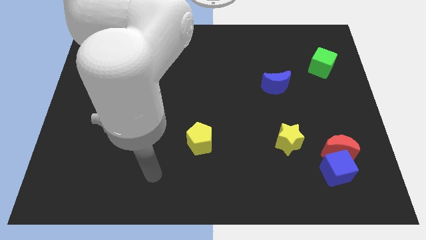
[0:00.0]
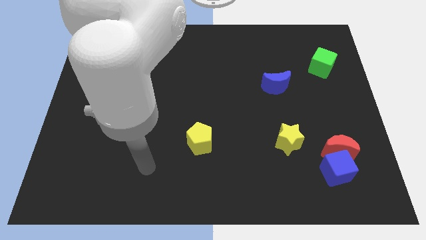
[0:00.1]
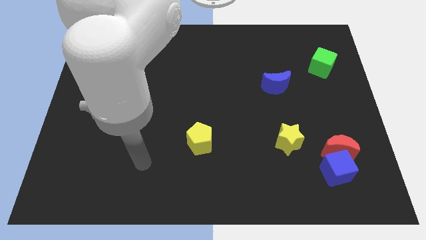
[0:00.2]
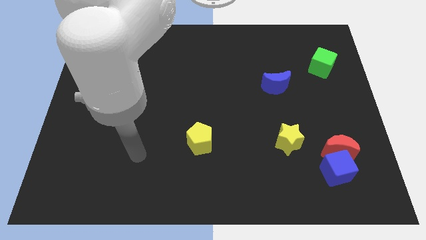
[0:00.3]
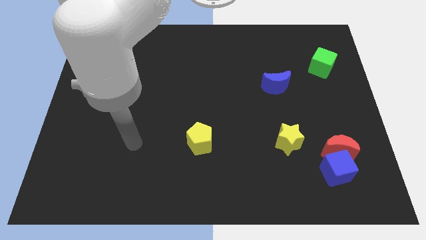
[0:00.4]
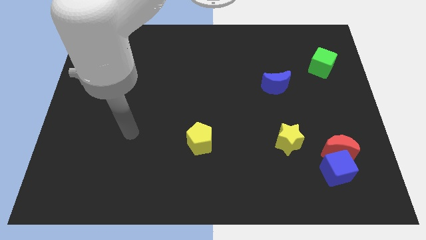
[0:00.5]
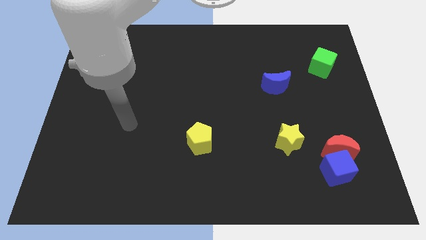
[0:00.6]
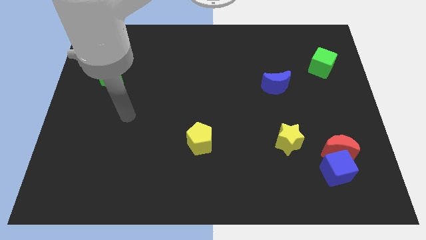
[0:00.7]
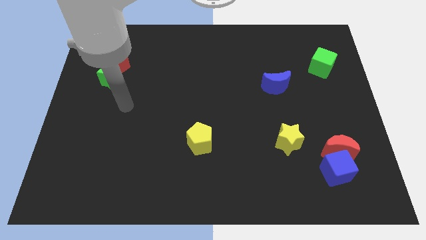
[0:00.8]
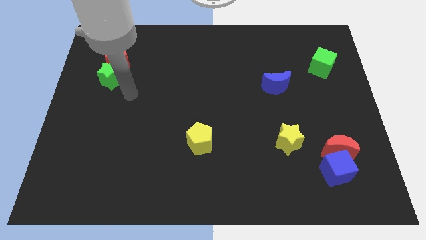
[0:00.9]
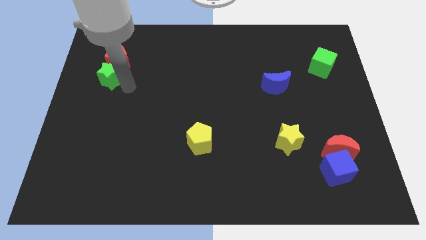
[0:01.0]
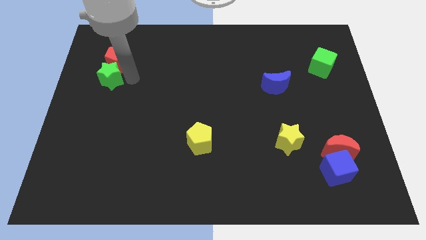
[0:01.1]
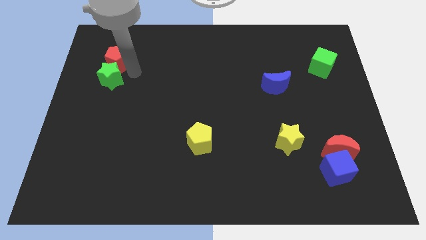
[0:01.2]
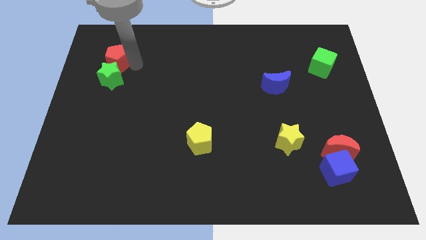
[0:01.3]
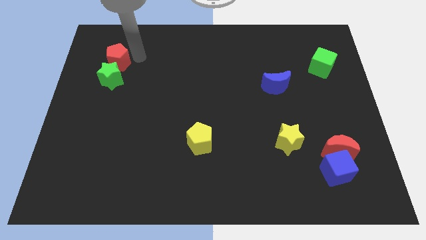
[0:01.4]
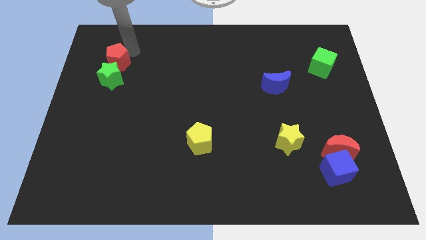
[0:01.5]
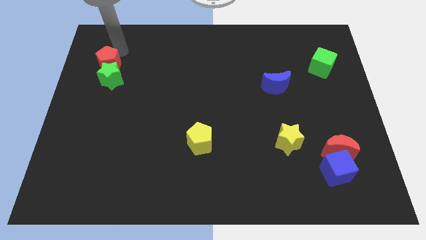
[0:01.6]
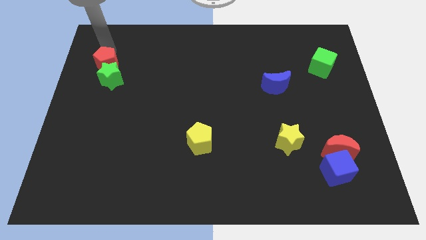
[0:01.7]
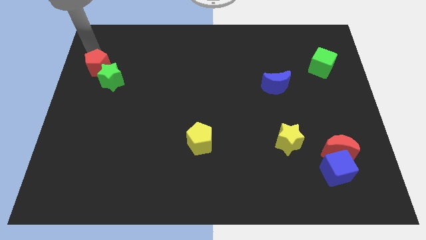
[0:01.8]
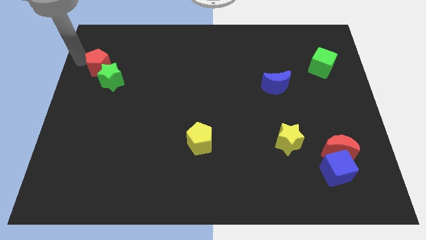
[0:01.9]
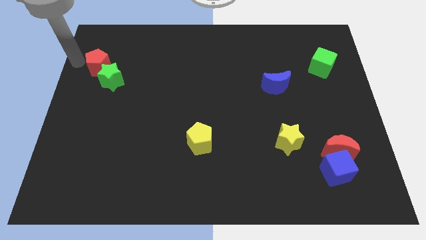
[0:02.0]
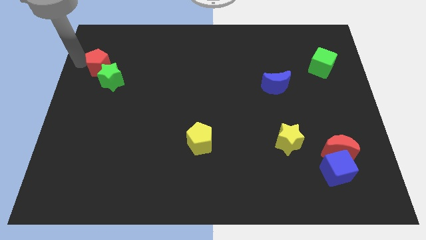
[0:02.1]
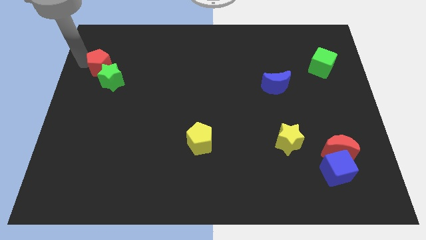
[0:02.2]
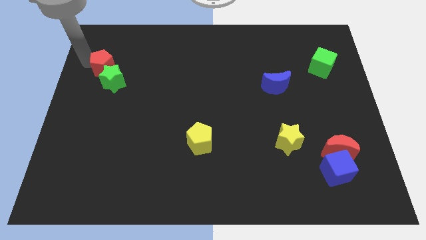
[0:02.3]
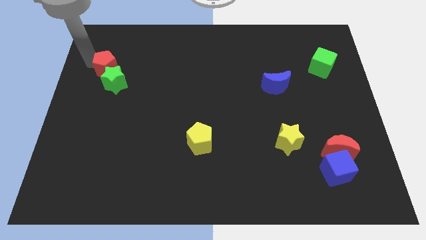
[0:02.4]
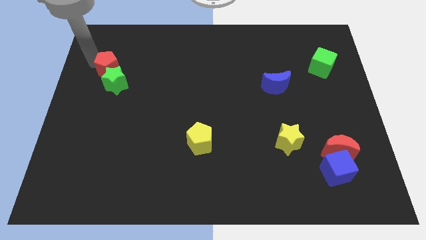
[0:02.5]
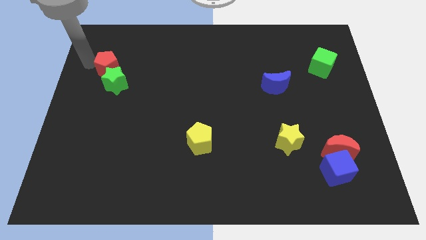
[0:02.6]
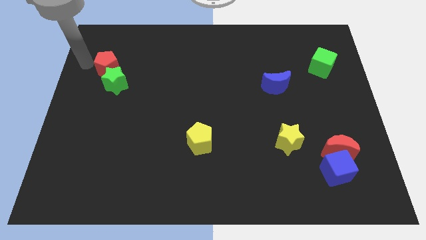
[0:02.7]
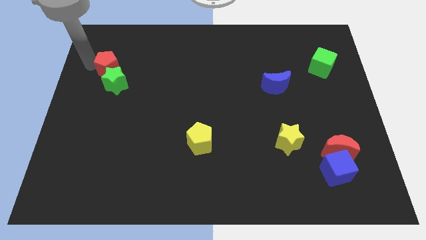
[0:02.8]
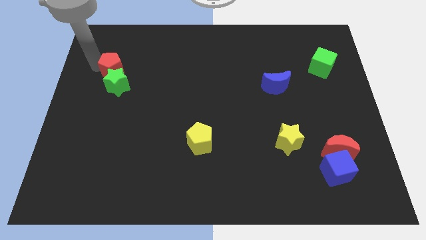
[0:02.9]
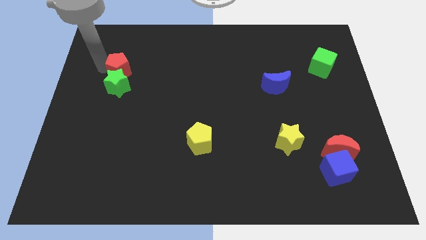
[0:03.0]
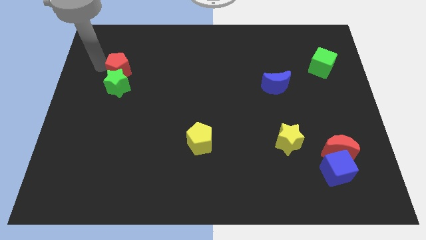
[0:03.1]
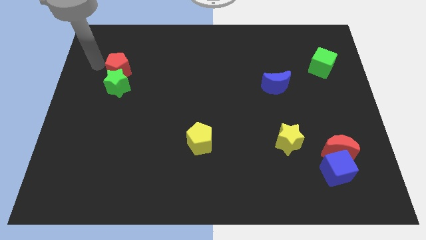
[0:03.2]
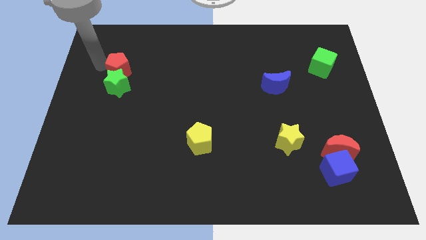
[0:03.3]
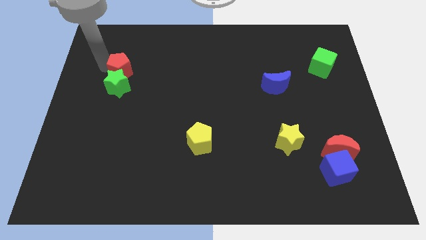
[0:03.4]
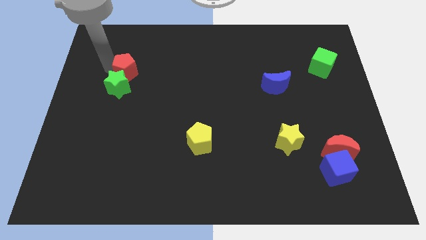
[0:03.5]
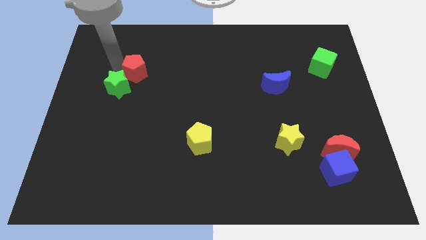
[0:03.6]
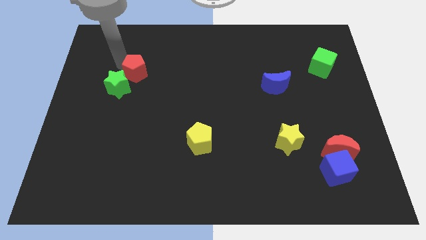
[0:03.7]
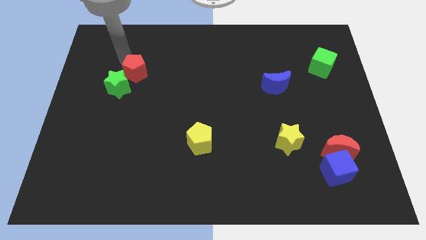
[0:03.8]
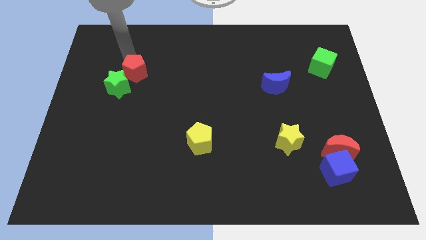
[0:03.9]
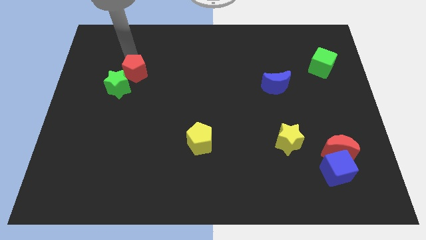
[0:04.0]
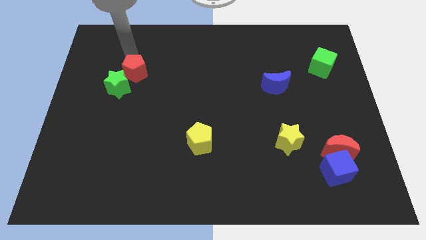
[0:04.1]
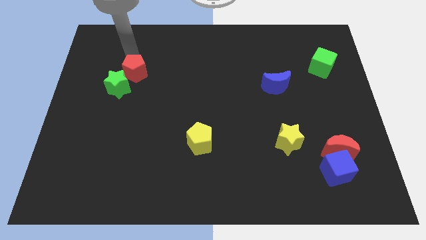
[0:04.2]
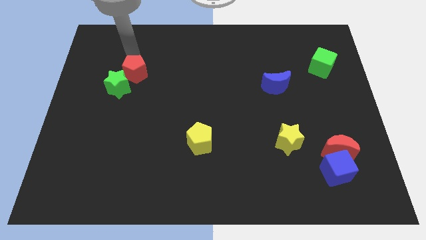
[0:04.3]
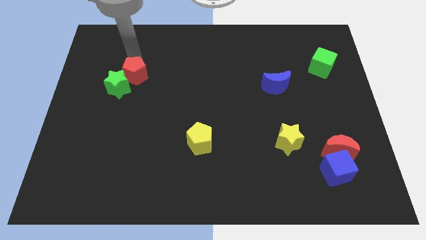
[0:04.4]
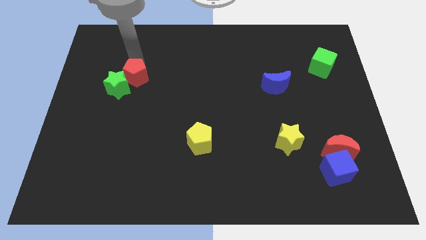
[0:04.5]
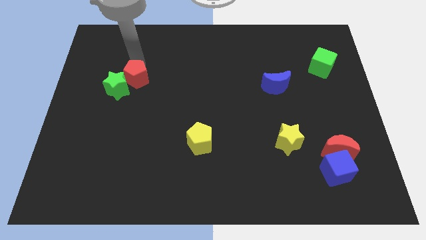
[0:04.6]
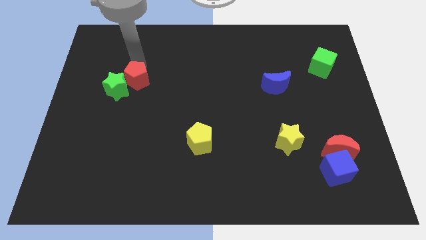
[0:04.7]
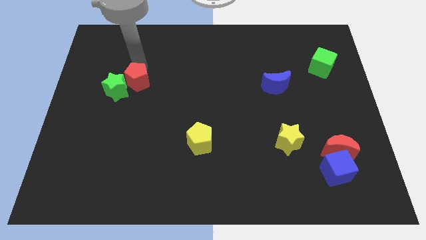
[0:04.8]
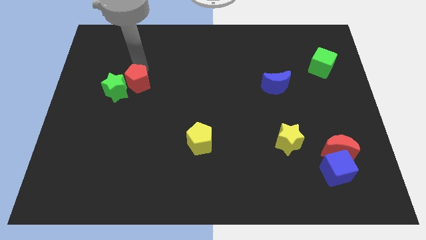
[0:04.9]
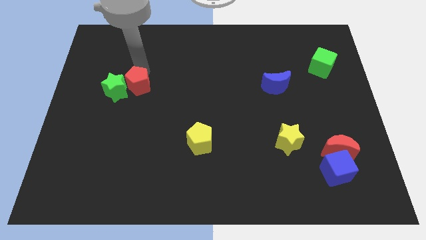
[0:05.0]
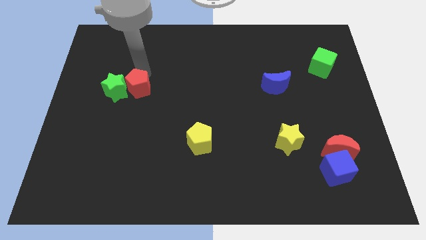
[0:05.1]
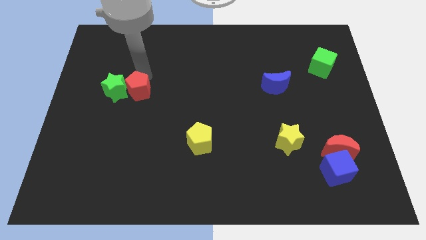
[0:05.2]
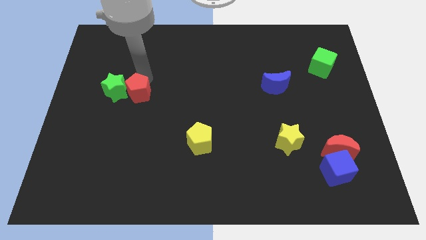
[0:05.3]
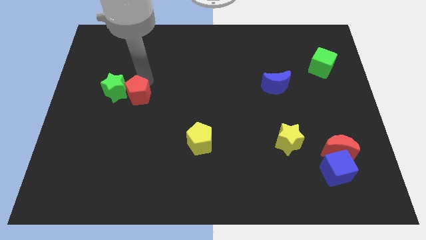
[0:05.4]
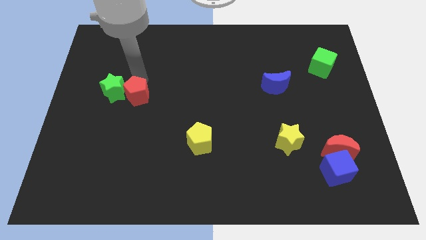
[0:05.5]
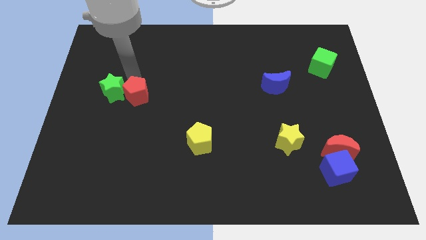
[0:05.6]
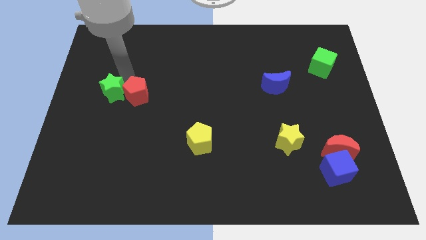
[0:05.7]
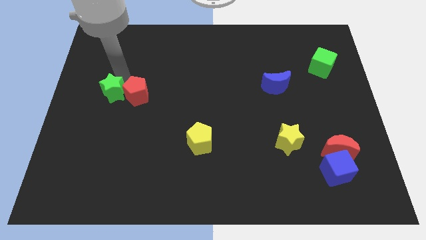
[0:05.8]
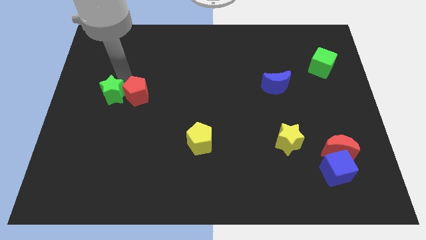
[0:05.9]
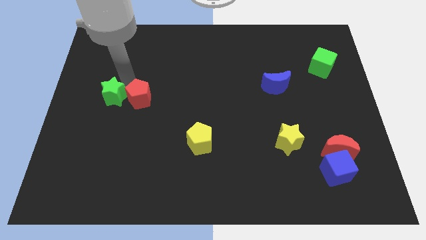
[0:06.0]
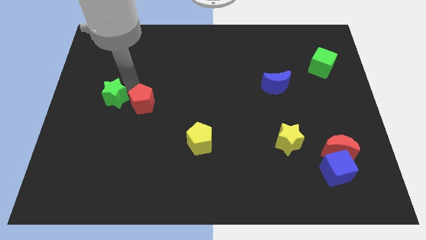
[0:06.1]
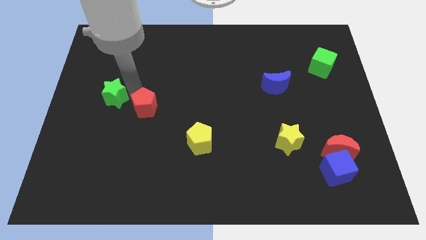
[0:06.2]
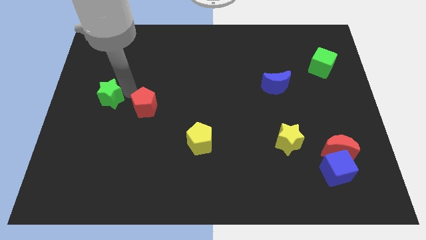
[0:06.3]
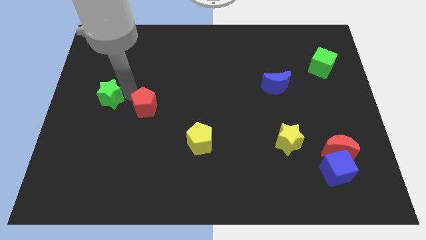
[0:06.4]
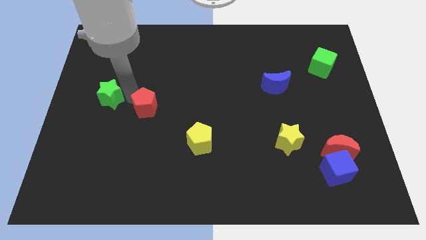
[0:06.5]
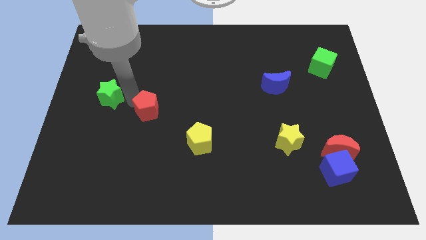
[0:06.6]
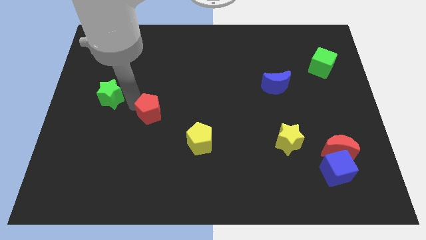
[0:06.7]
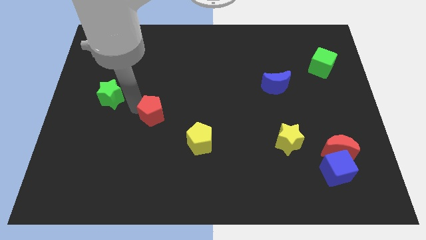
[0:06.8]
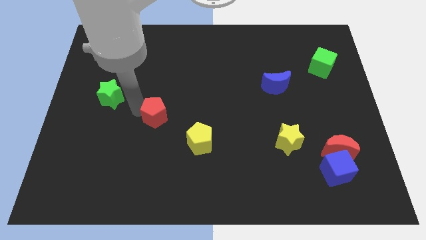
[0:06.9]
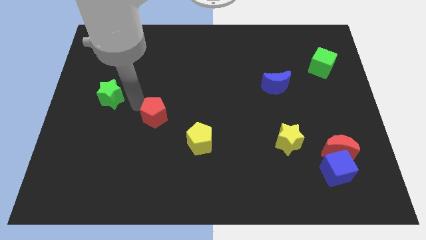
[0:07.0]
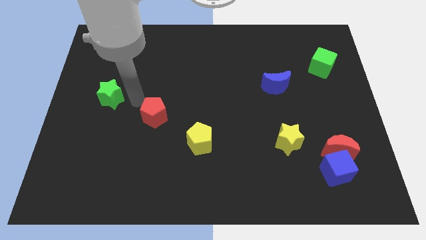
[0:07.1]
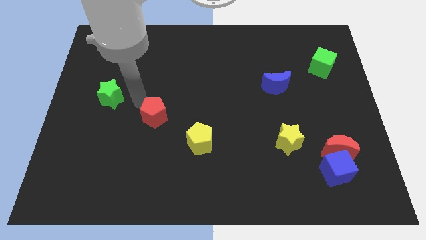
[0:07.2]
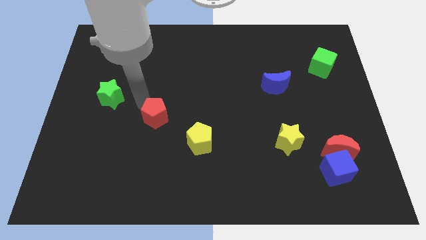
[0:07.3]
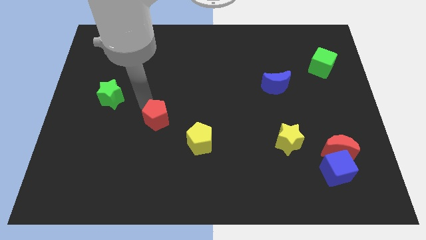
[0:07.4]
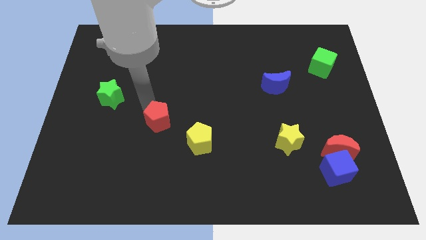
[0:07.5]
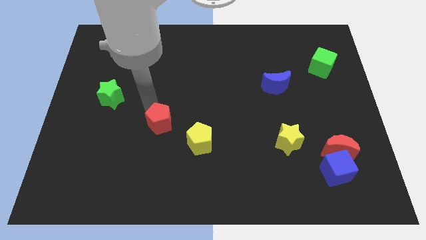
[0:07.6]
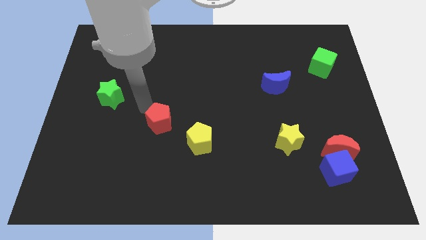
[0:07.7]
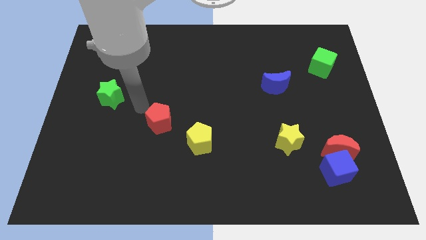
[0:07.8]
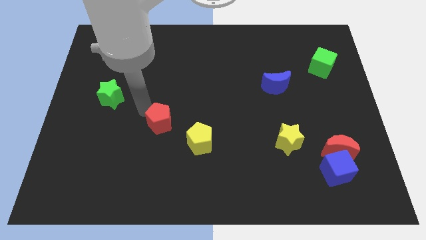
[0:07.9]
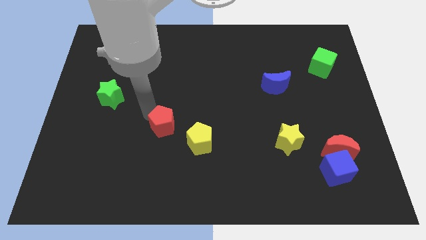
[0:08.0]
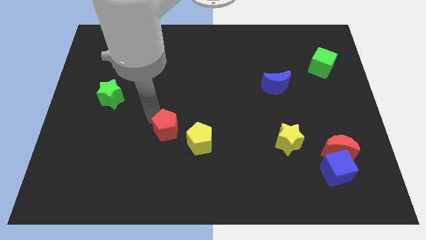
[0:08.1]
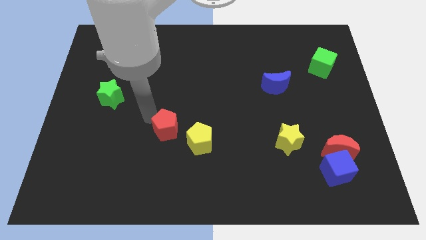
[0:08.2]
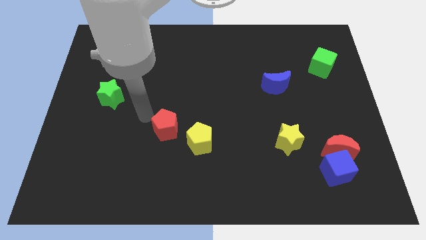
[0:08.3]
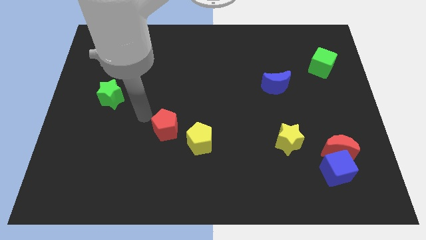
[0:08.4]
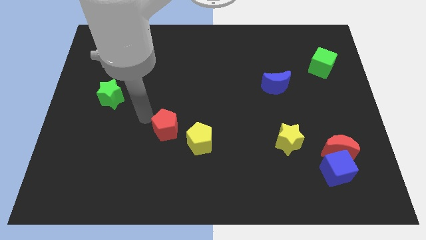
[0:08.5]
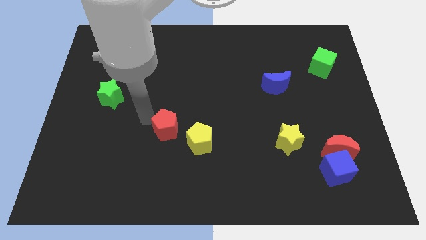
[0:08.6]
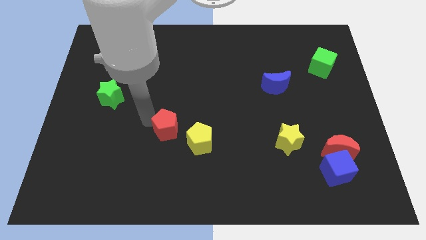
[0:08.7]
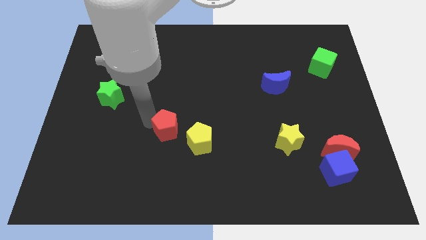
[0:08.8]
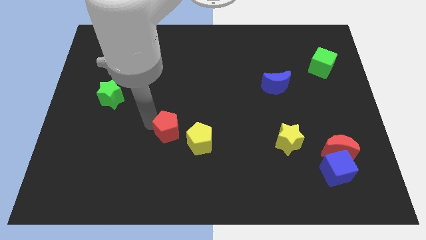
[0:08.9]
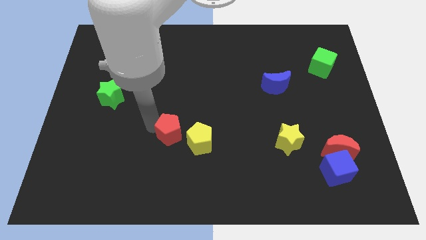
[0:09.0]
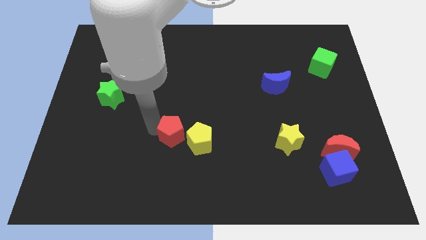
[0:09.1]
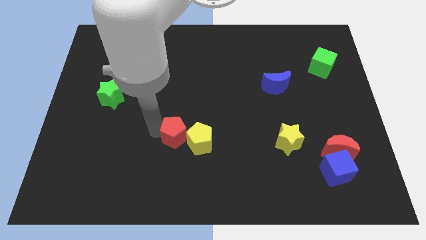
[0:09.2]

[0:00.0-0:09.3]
push the red pentagon close to the yellow pentagon
